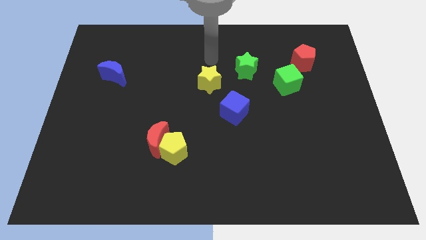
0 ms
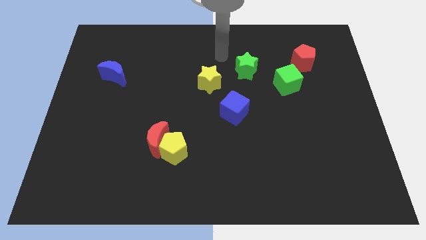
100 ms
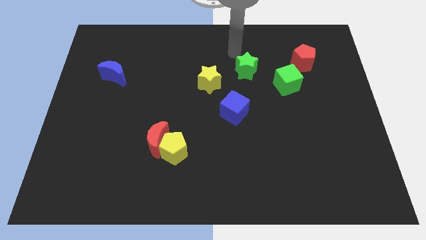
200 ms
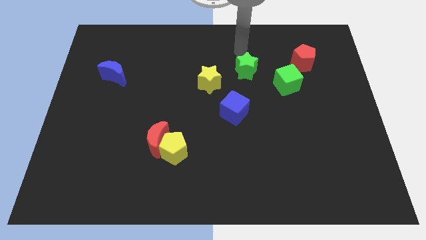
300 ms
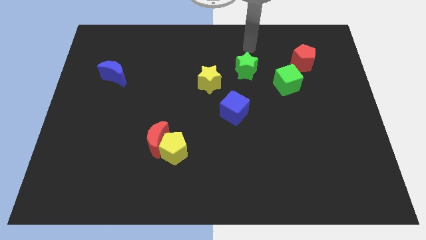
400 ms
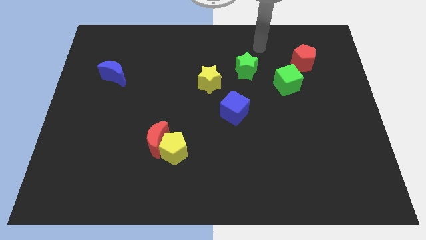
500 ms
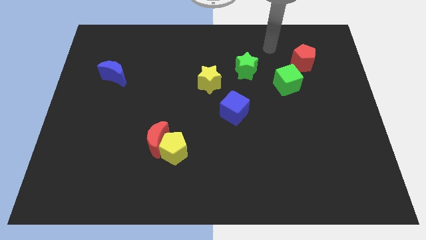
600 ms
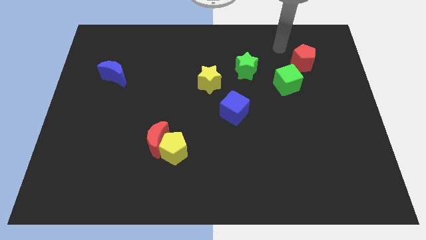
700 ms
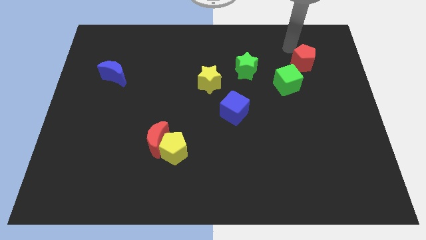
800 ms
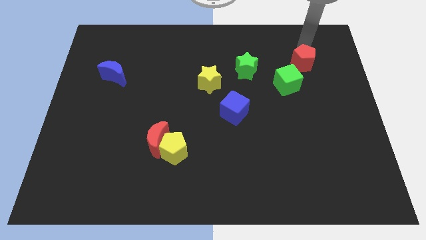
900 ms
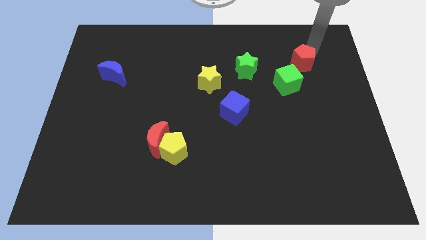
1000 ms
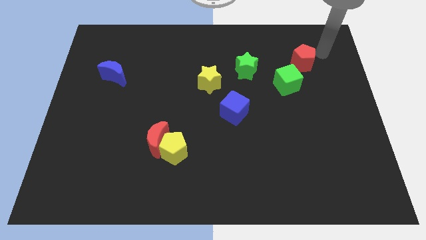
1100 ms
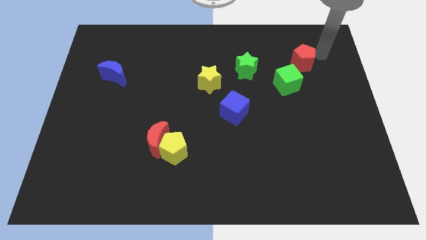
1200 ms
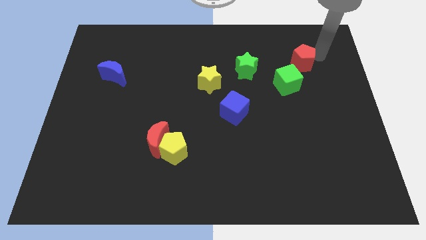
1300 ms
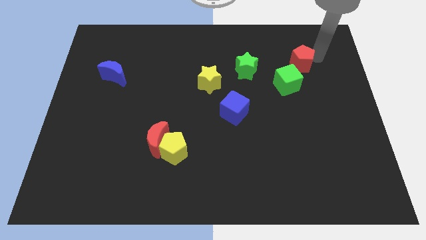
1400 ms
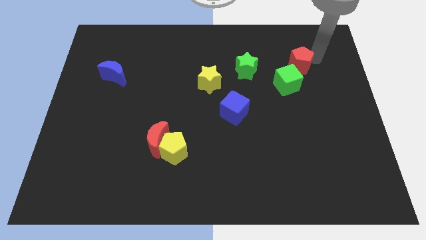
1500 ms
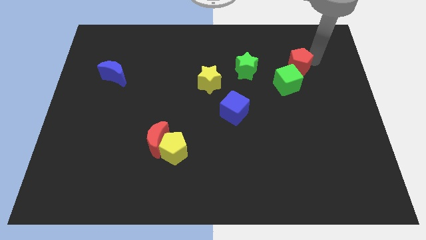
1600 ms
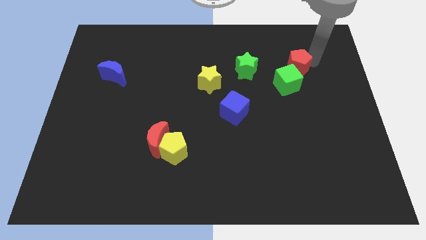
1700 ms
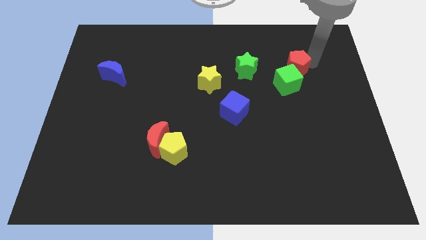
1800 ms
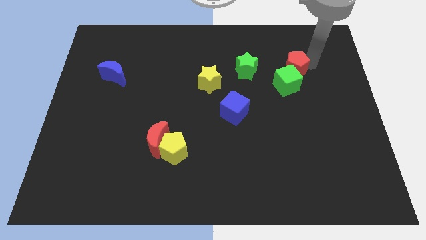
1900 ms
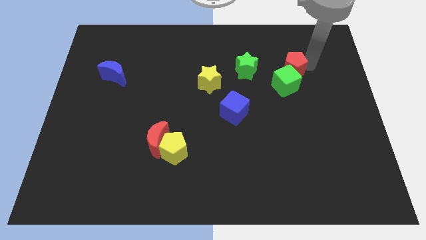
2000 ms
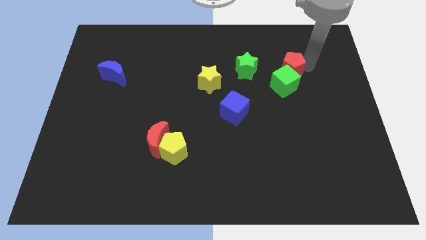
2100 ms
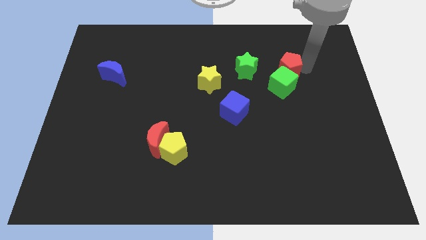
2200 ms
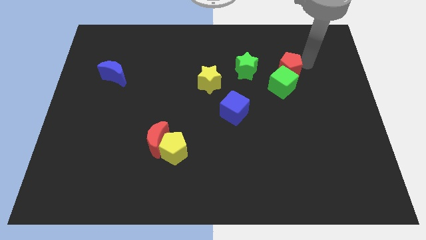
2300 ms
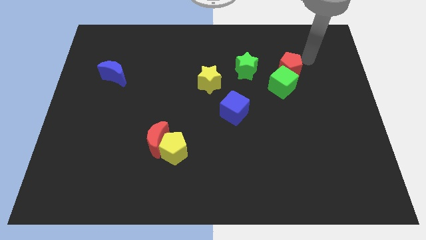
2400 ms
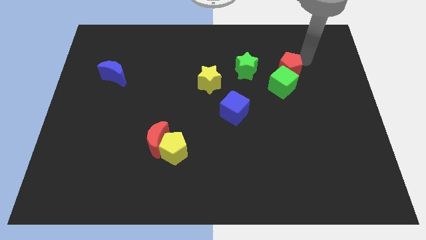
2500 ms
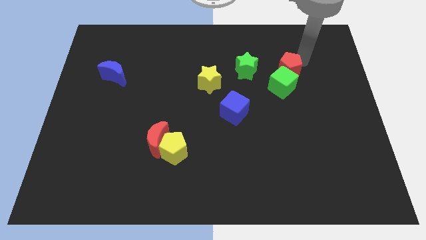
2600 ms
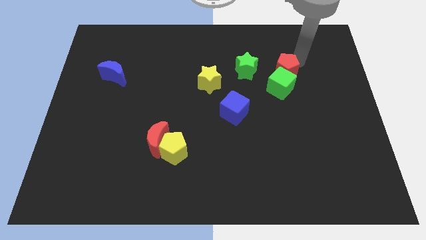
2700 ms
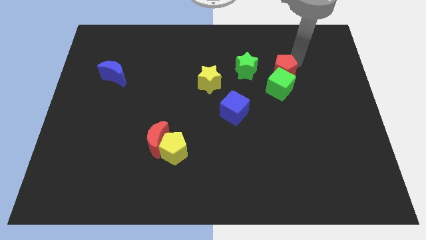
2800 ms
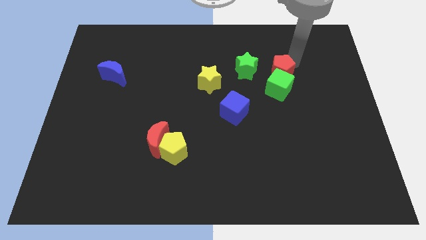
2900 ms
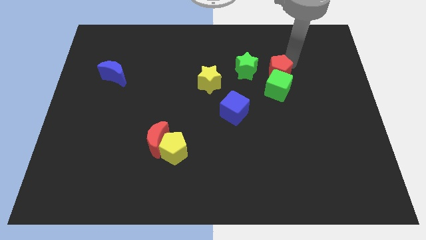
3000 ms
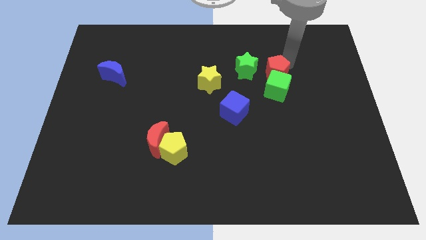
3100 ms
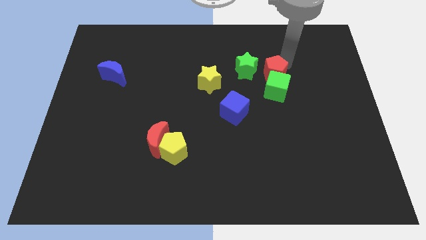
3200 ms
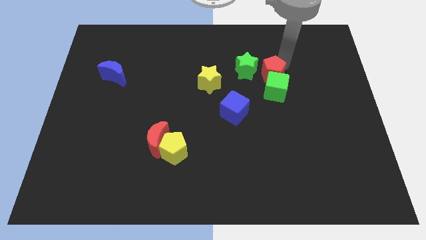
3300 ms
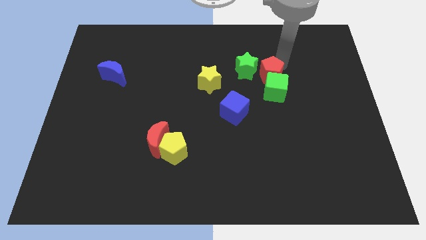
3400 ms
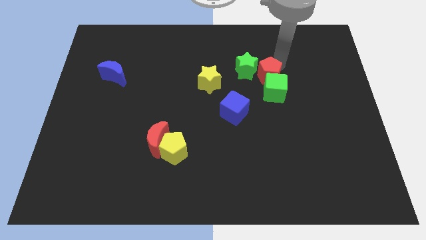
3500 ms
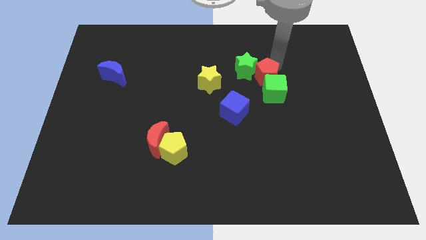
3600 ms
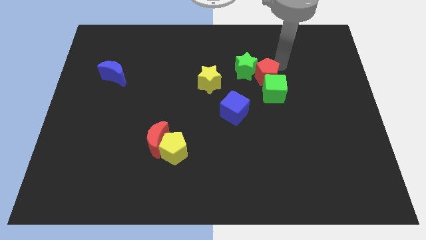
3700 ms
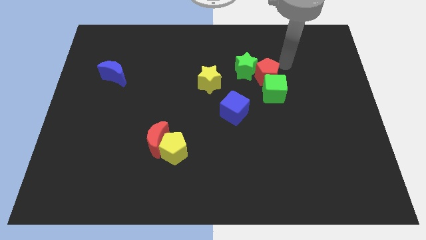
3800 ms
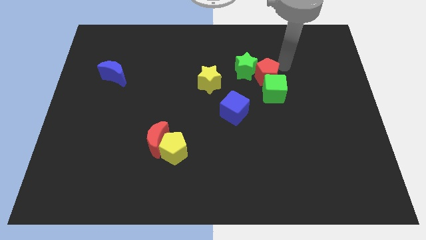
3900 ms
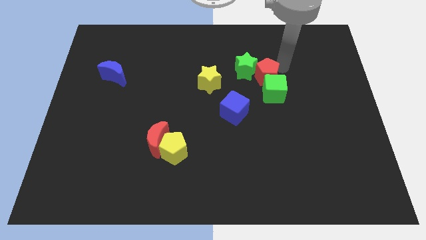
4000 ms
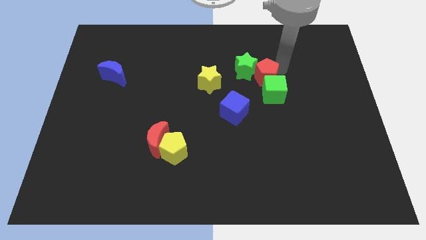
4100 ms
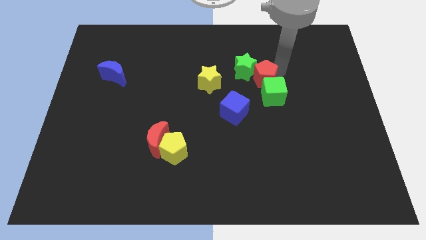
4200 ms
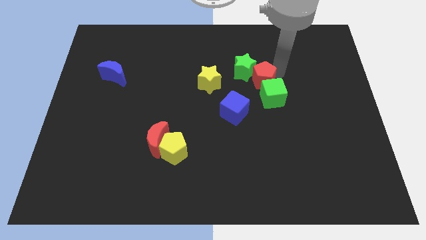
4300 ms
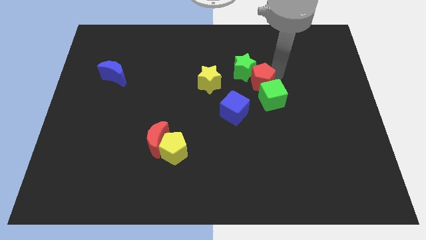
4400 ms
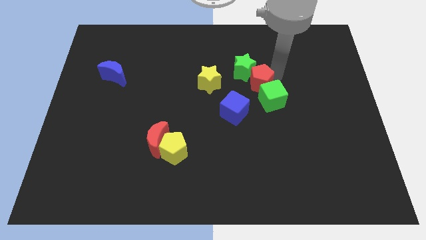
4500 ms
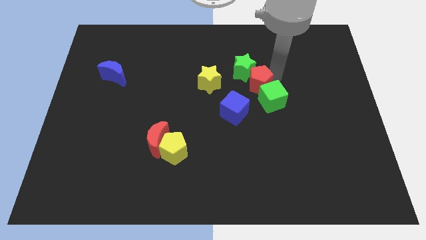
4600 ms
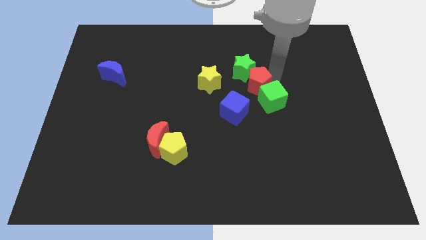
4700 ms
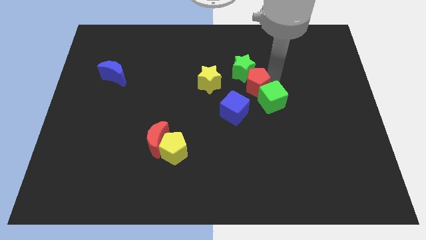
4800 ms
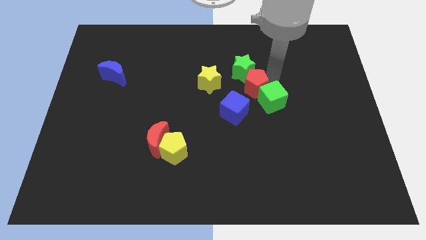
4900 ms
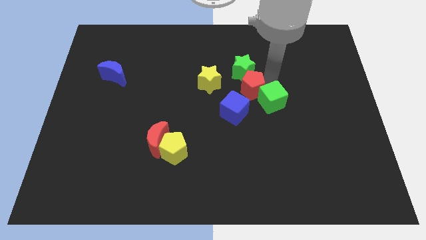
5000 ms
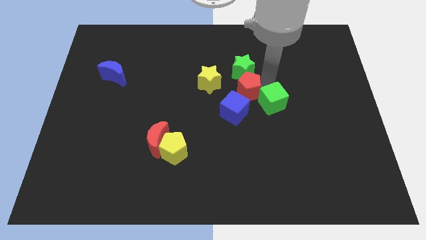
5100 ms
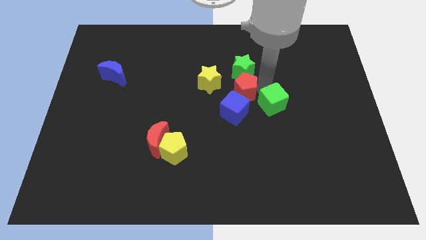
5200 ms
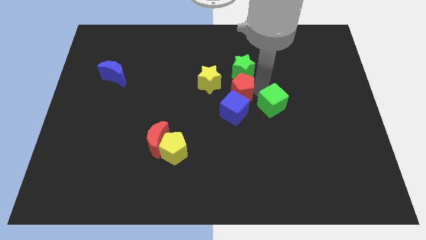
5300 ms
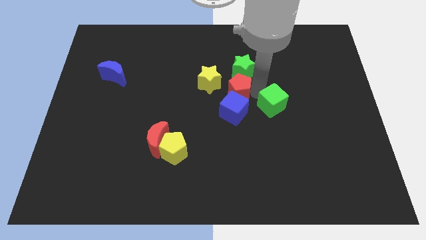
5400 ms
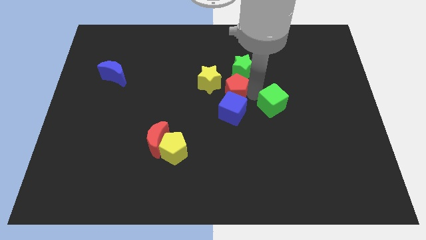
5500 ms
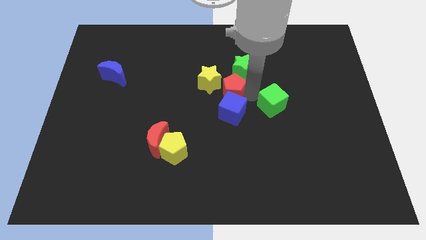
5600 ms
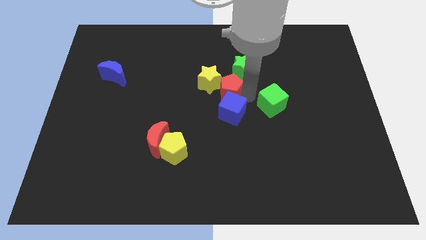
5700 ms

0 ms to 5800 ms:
move the red pentagon close to the yellow star

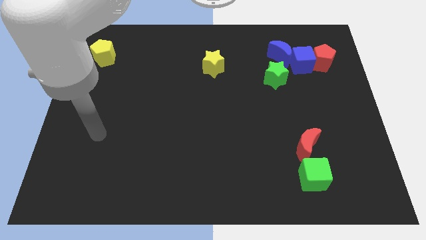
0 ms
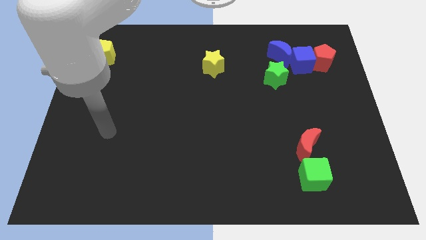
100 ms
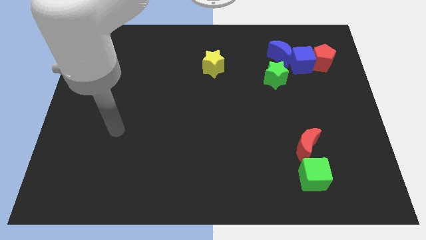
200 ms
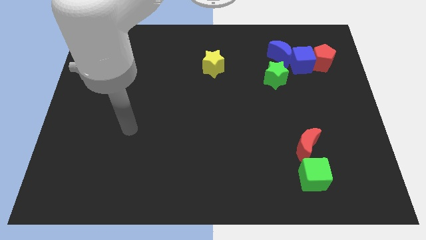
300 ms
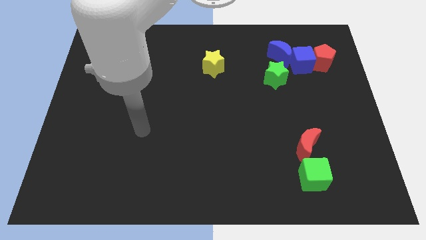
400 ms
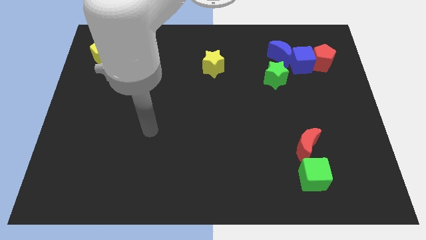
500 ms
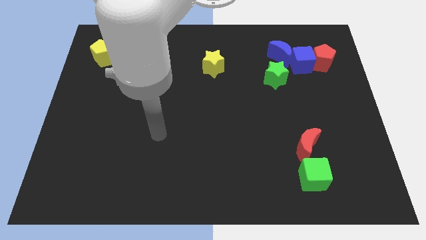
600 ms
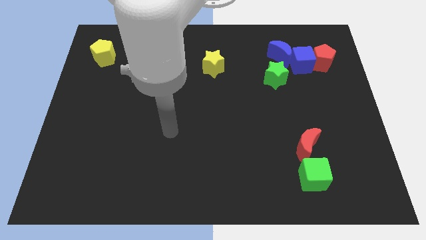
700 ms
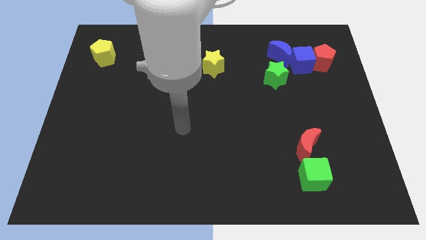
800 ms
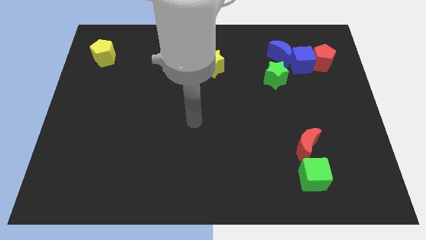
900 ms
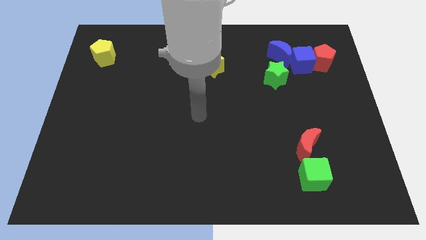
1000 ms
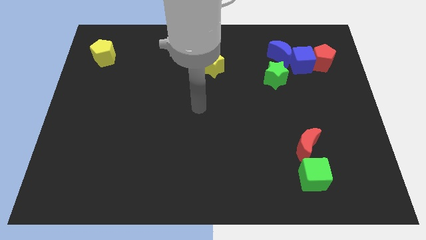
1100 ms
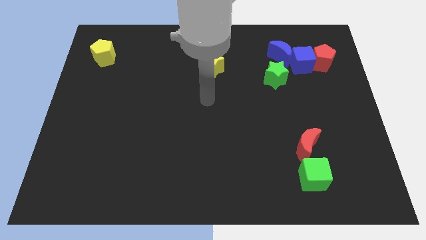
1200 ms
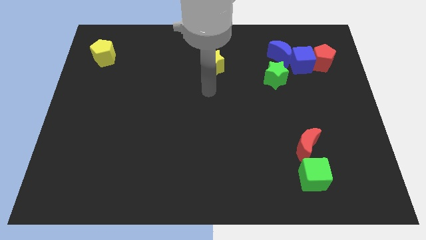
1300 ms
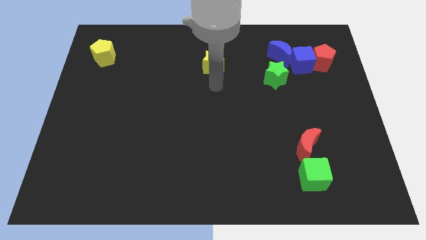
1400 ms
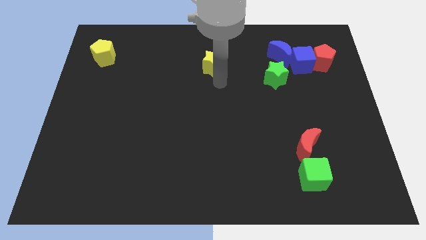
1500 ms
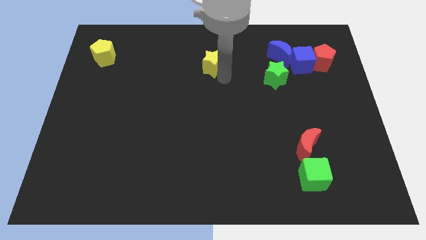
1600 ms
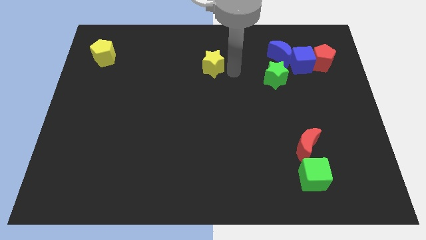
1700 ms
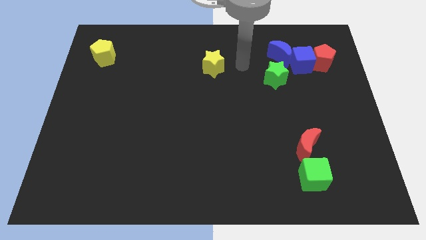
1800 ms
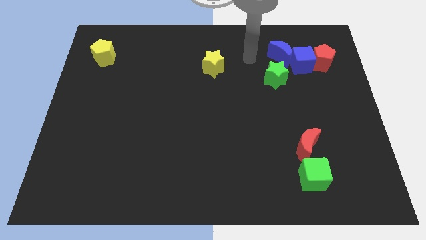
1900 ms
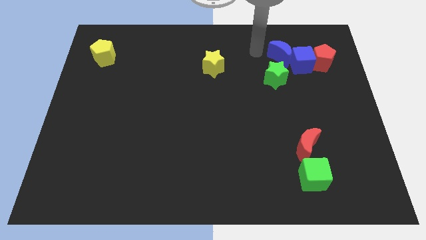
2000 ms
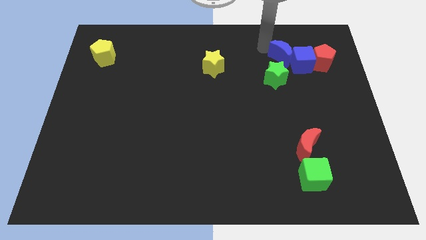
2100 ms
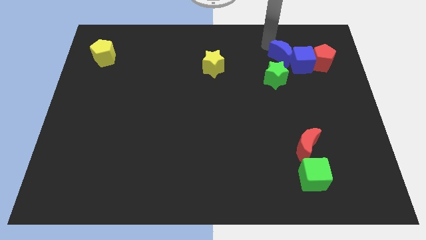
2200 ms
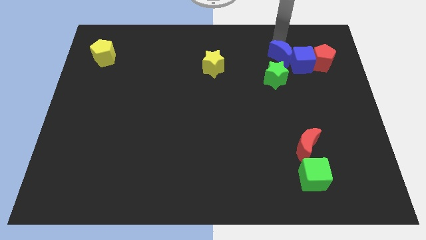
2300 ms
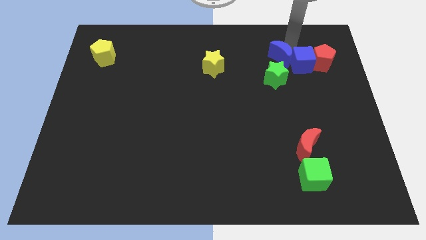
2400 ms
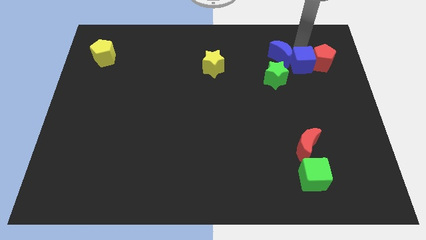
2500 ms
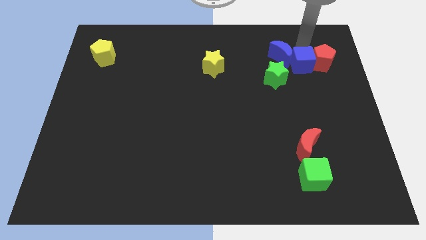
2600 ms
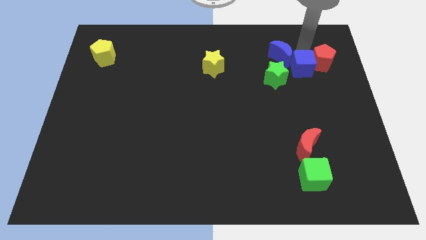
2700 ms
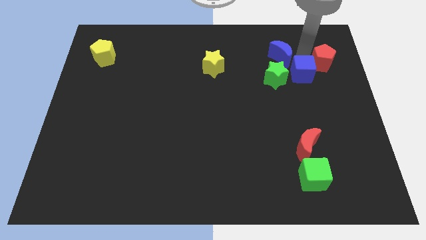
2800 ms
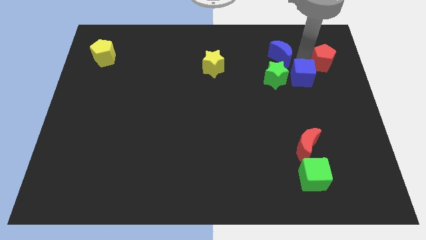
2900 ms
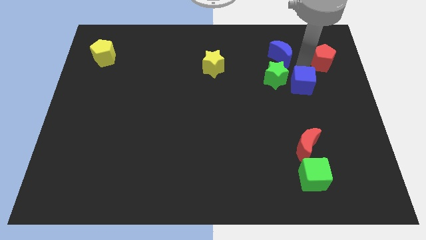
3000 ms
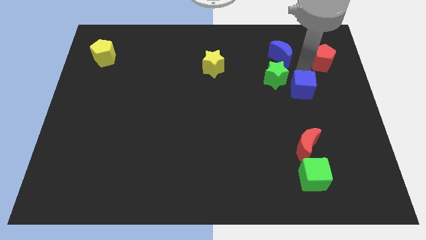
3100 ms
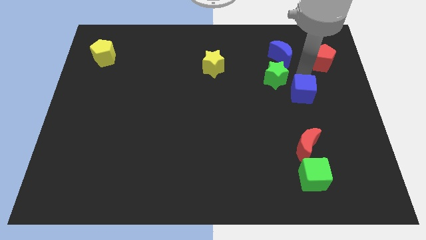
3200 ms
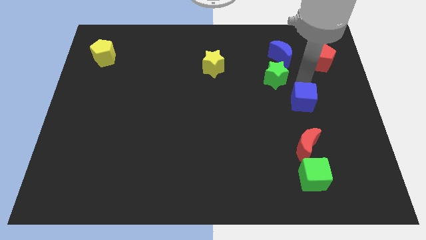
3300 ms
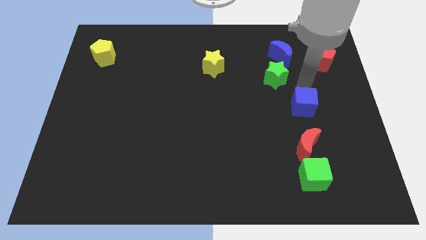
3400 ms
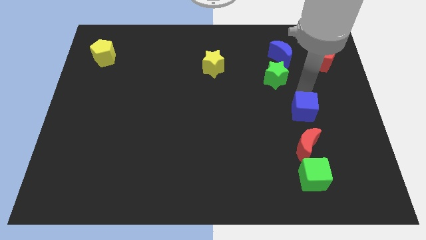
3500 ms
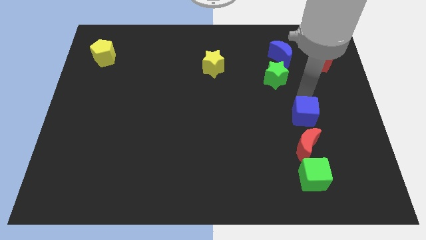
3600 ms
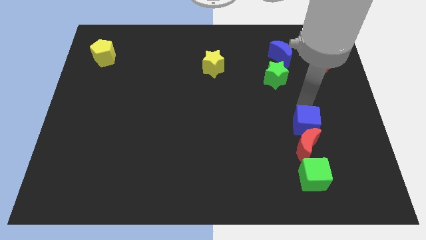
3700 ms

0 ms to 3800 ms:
put the blue cube to the red moon
